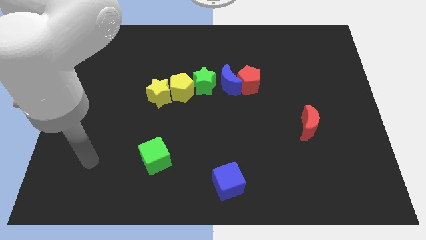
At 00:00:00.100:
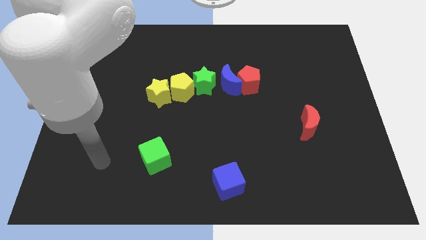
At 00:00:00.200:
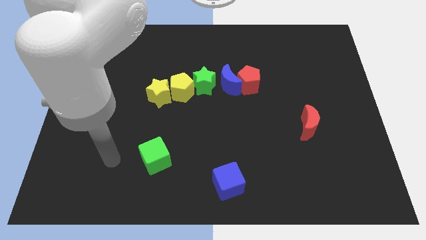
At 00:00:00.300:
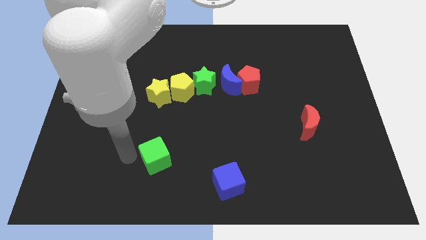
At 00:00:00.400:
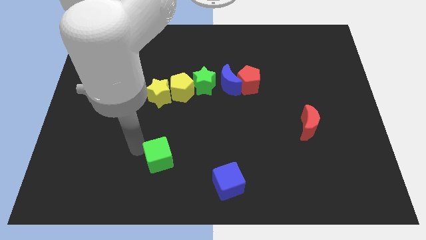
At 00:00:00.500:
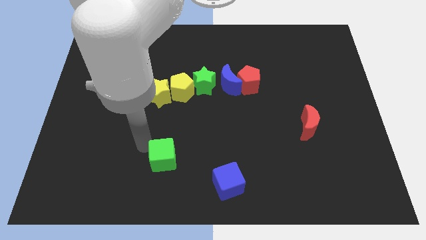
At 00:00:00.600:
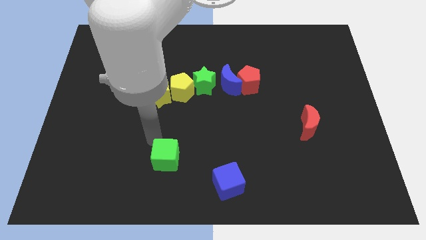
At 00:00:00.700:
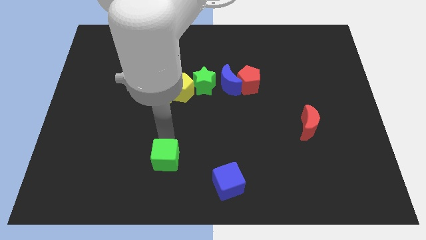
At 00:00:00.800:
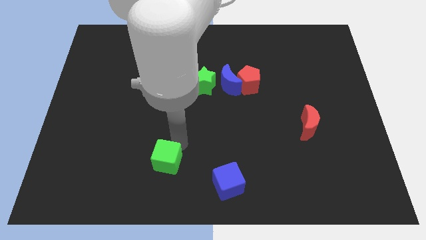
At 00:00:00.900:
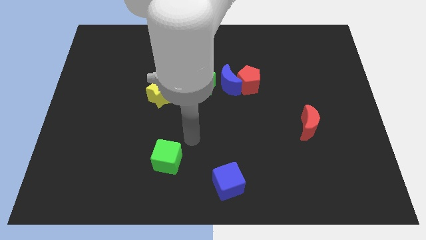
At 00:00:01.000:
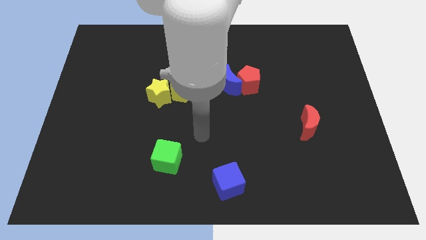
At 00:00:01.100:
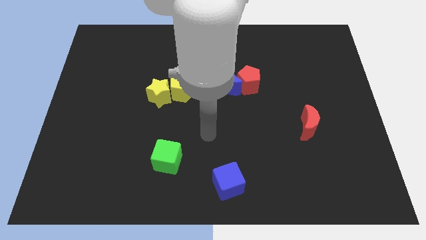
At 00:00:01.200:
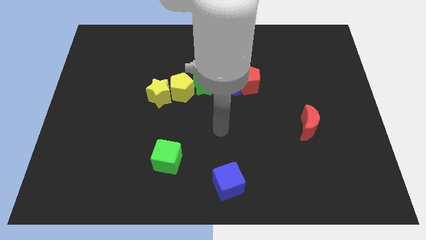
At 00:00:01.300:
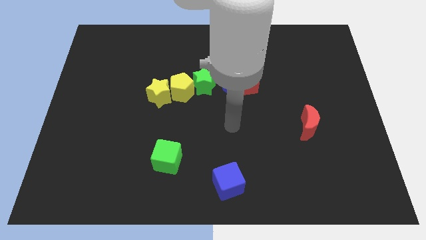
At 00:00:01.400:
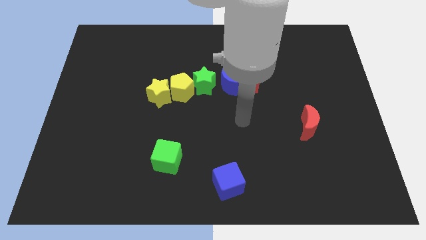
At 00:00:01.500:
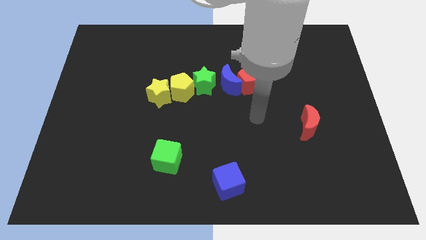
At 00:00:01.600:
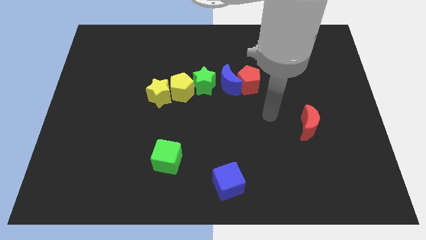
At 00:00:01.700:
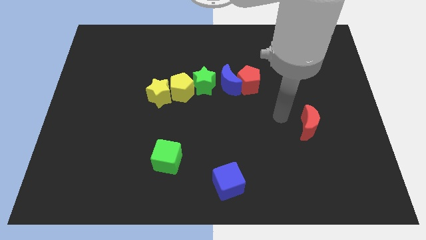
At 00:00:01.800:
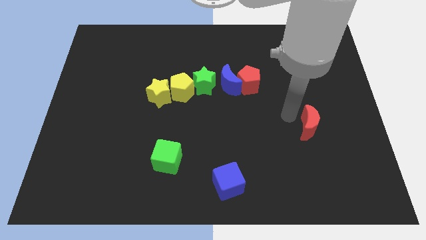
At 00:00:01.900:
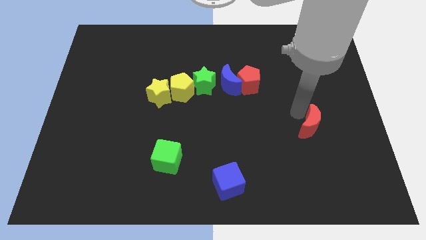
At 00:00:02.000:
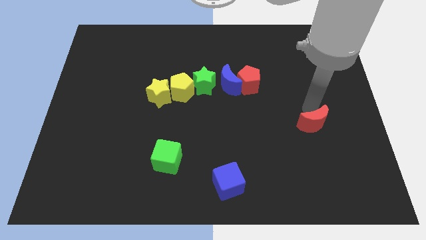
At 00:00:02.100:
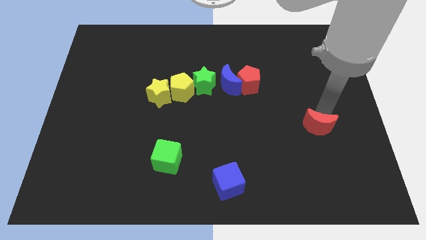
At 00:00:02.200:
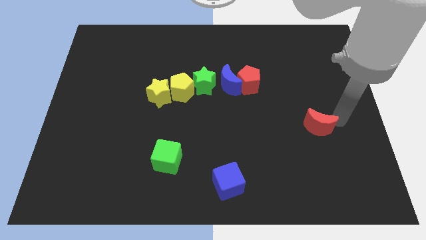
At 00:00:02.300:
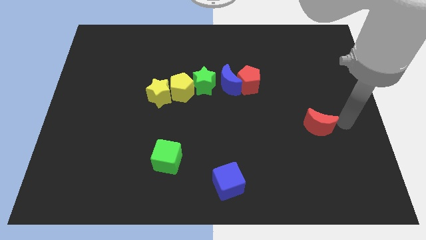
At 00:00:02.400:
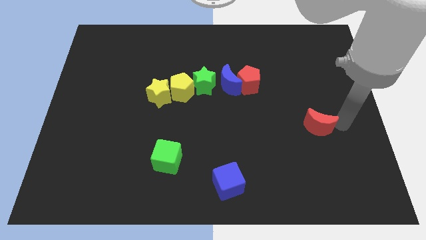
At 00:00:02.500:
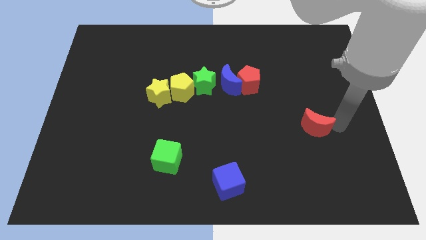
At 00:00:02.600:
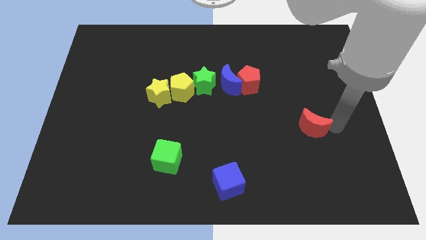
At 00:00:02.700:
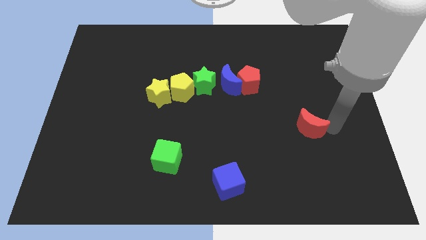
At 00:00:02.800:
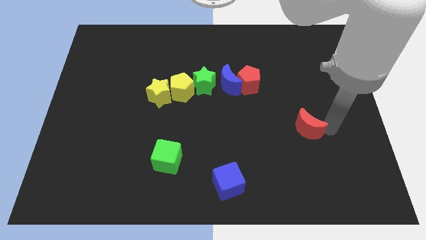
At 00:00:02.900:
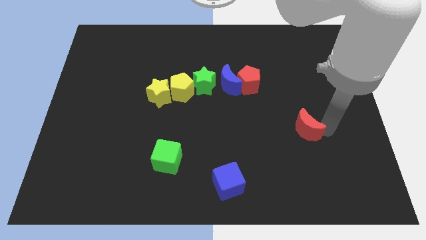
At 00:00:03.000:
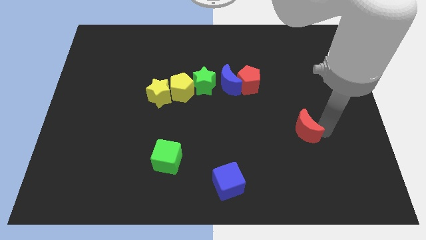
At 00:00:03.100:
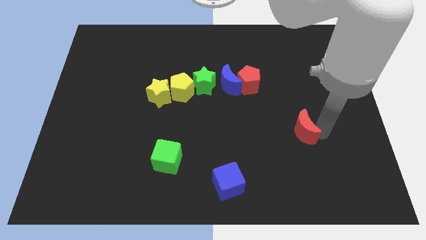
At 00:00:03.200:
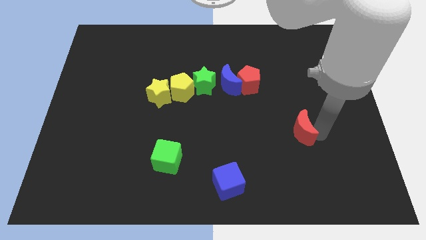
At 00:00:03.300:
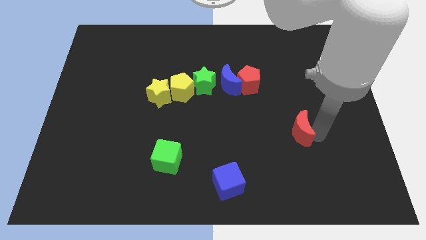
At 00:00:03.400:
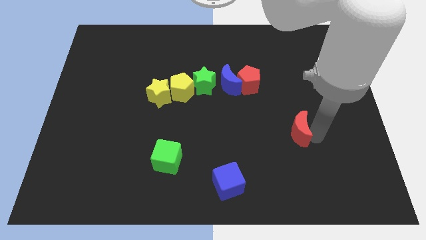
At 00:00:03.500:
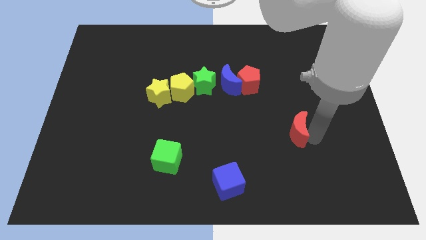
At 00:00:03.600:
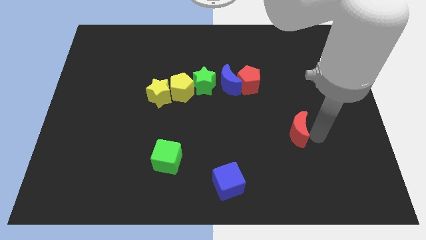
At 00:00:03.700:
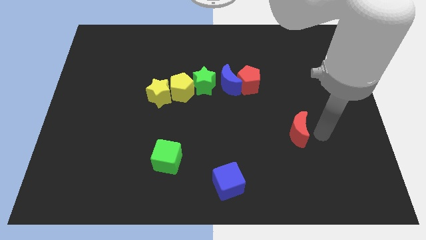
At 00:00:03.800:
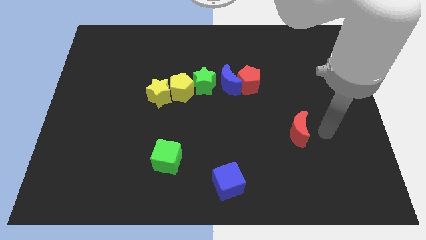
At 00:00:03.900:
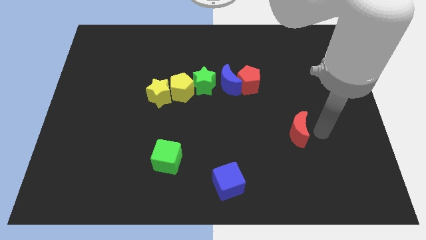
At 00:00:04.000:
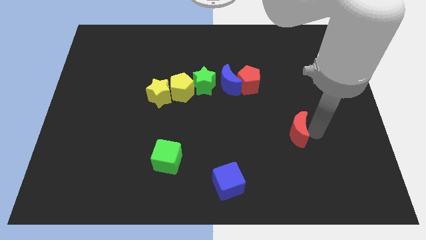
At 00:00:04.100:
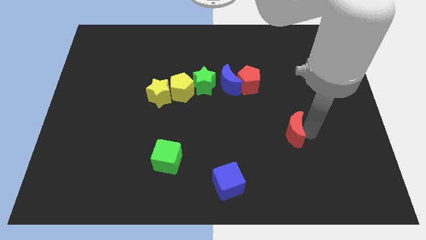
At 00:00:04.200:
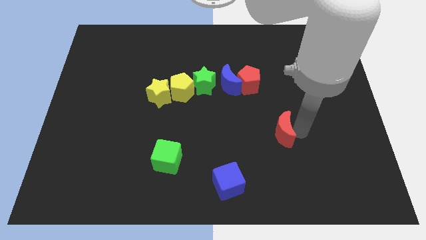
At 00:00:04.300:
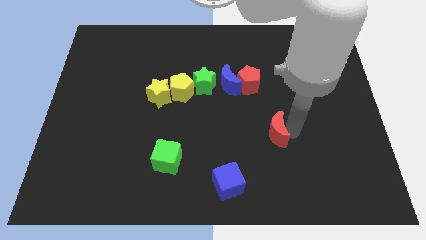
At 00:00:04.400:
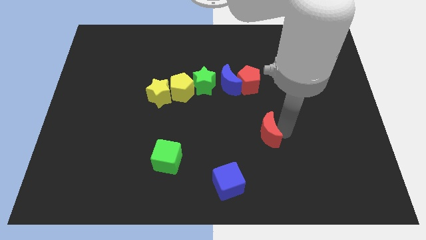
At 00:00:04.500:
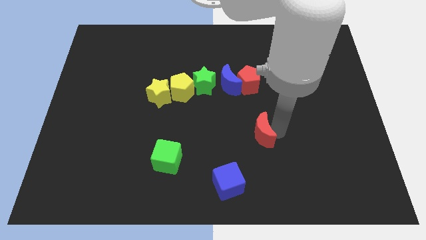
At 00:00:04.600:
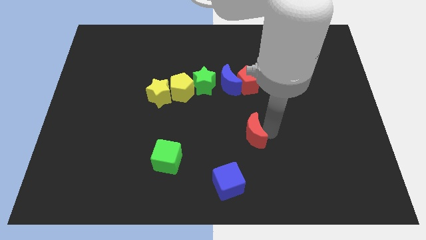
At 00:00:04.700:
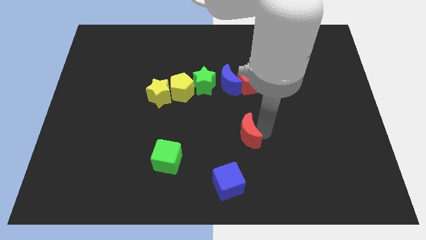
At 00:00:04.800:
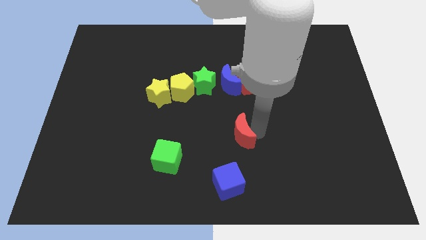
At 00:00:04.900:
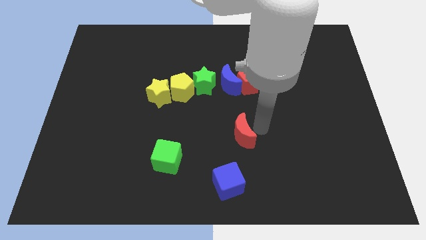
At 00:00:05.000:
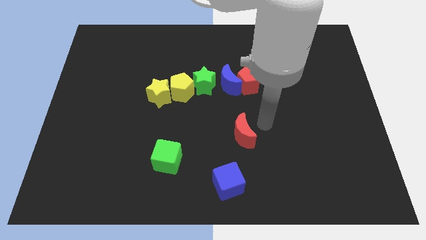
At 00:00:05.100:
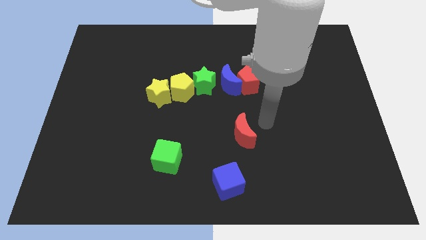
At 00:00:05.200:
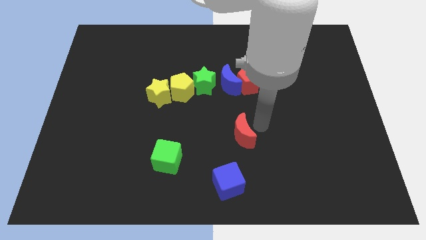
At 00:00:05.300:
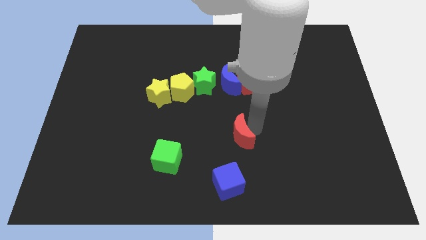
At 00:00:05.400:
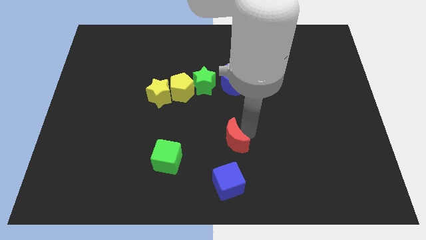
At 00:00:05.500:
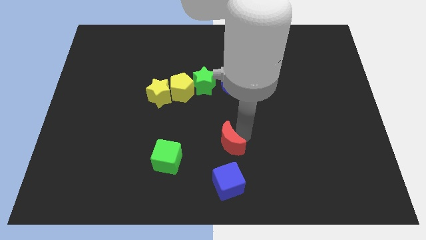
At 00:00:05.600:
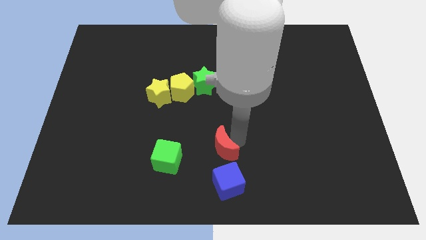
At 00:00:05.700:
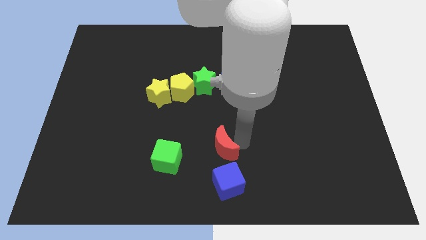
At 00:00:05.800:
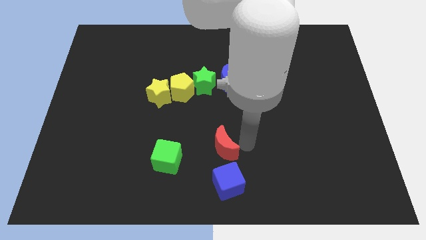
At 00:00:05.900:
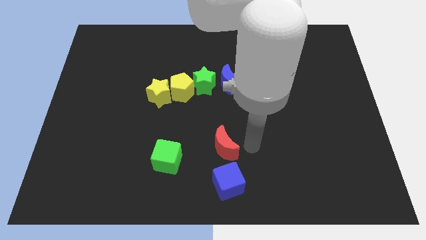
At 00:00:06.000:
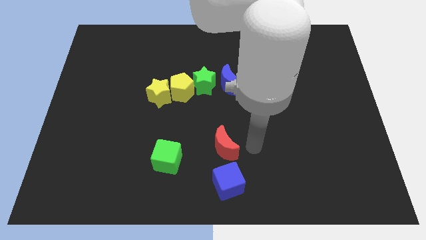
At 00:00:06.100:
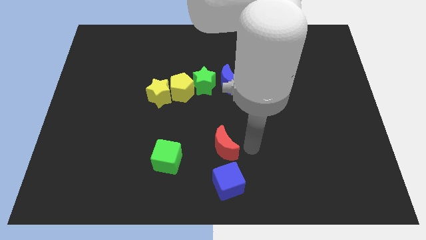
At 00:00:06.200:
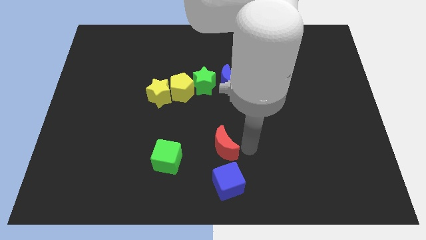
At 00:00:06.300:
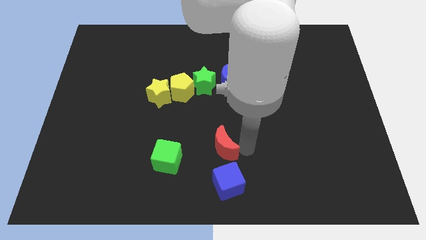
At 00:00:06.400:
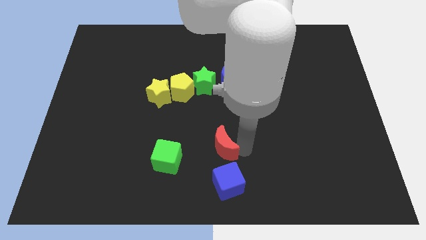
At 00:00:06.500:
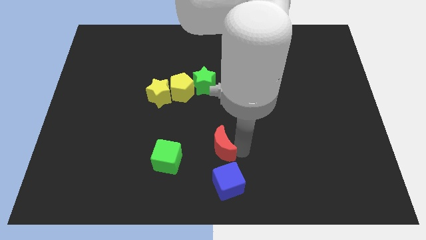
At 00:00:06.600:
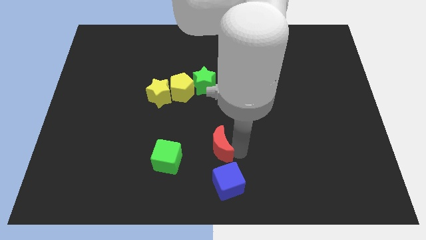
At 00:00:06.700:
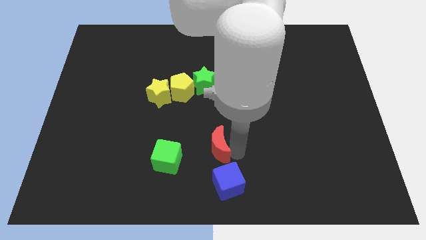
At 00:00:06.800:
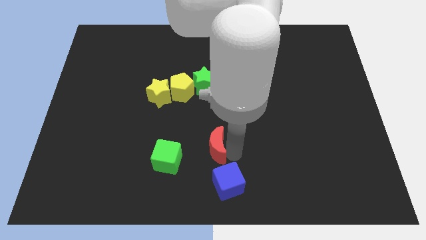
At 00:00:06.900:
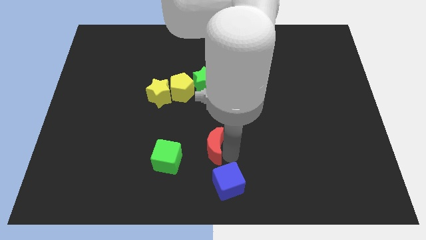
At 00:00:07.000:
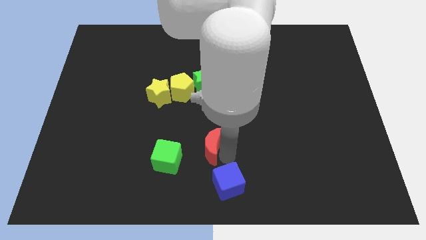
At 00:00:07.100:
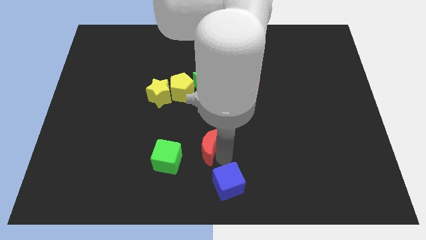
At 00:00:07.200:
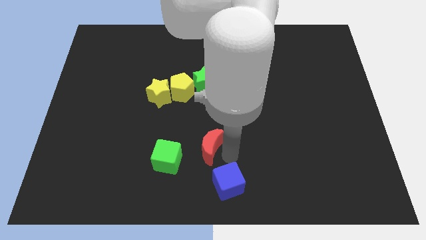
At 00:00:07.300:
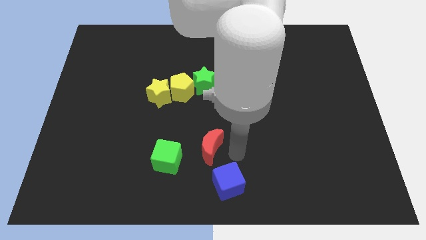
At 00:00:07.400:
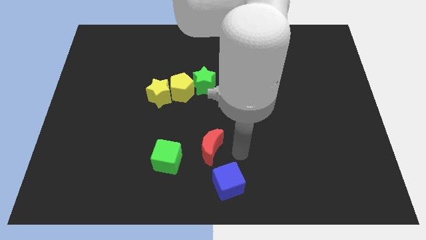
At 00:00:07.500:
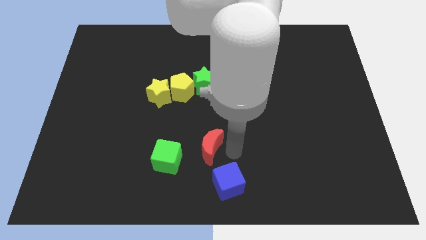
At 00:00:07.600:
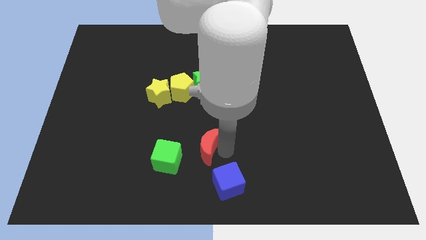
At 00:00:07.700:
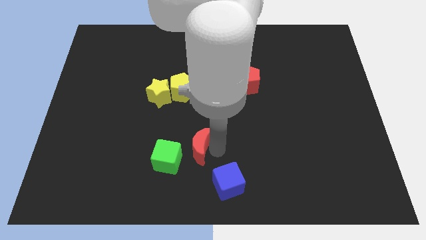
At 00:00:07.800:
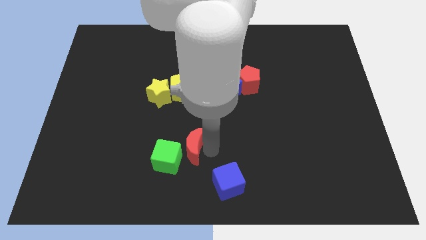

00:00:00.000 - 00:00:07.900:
push the red moon close to the green cube
